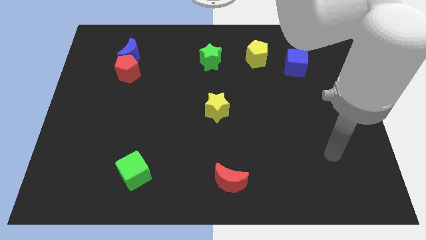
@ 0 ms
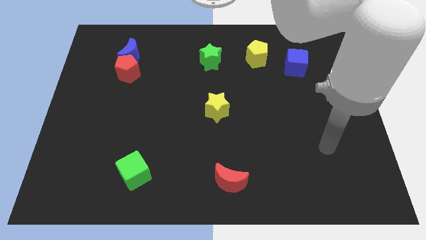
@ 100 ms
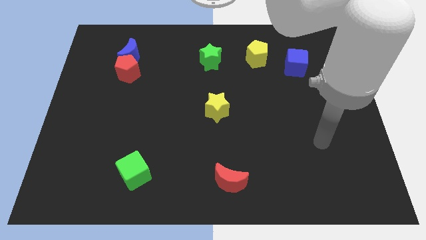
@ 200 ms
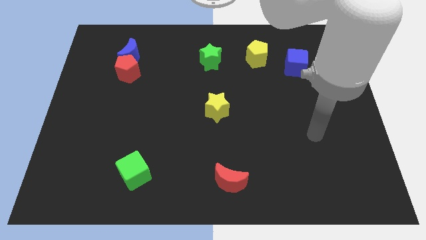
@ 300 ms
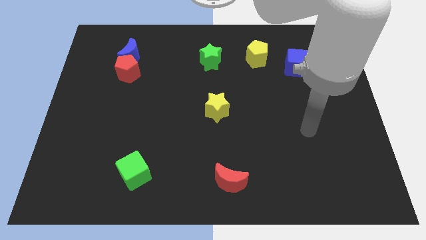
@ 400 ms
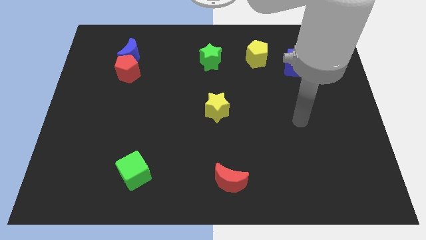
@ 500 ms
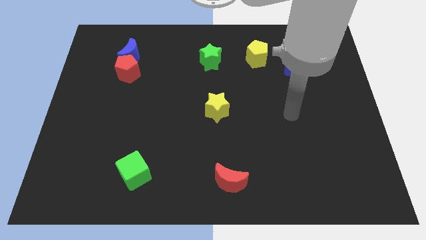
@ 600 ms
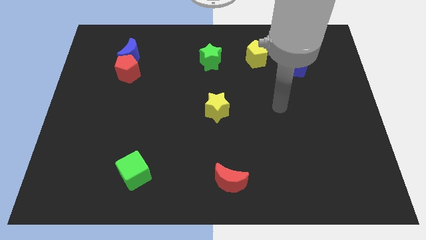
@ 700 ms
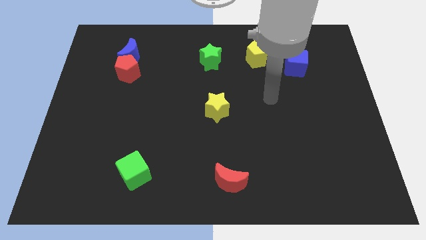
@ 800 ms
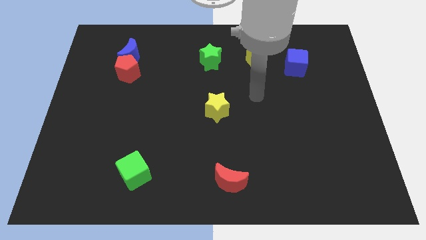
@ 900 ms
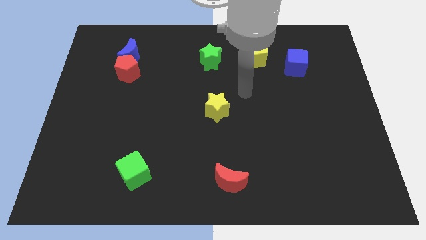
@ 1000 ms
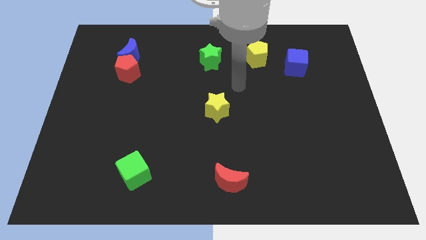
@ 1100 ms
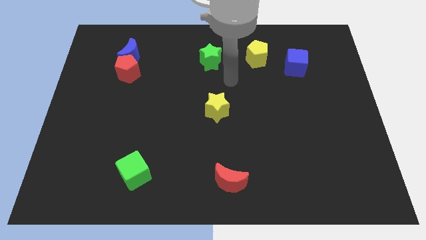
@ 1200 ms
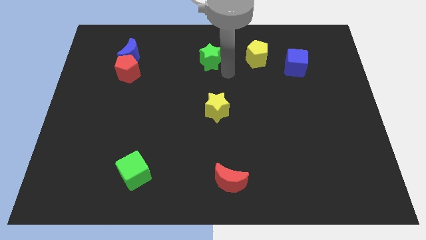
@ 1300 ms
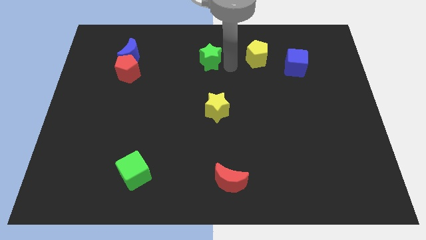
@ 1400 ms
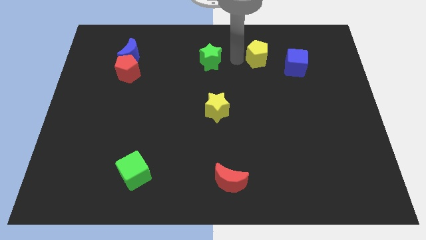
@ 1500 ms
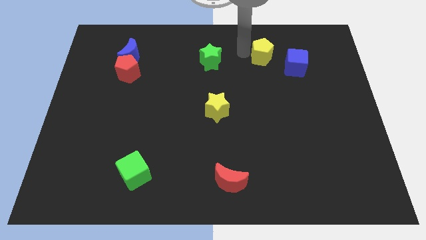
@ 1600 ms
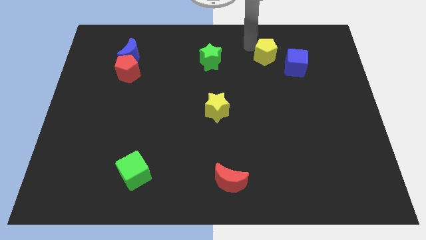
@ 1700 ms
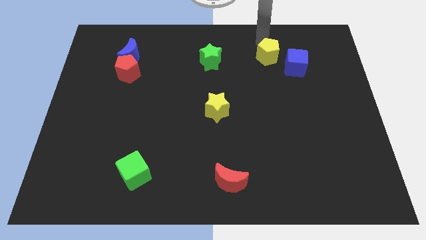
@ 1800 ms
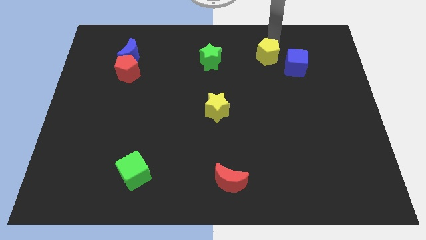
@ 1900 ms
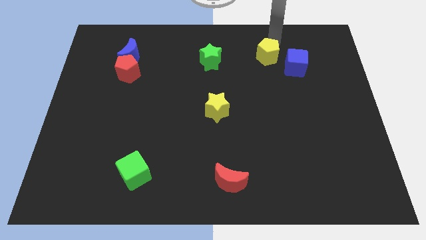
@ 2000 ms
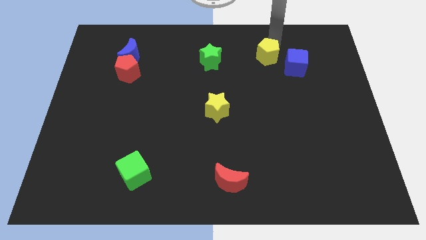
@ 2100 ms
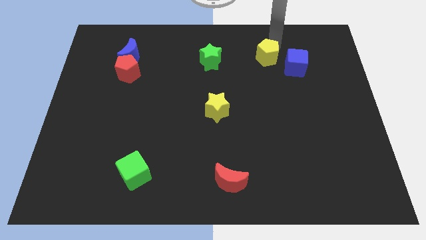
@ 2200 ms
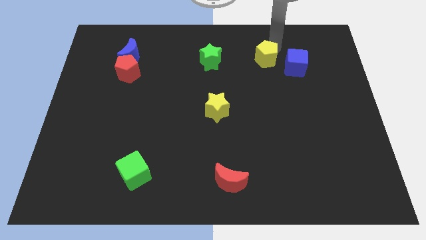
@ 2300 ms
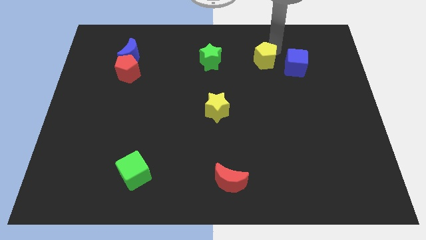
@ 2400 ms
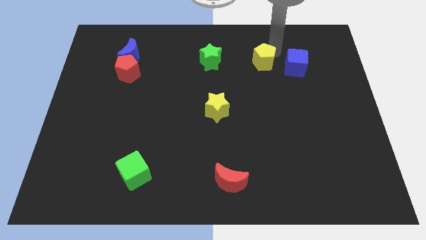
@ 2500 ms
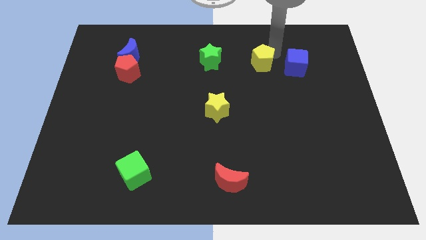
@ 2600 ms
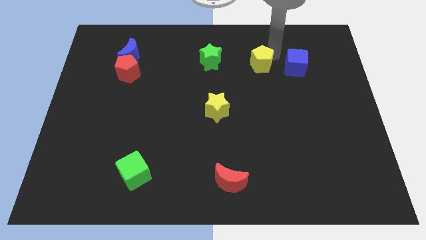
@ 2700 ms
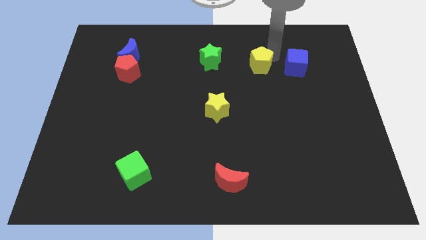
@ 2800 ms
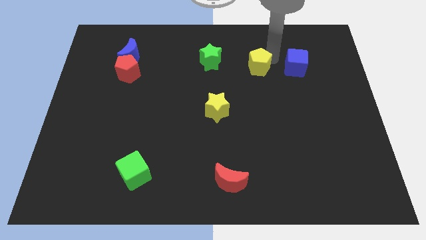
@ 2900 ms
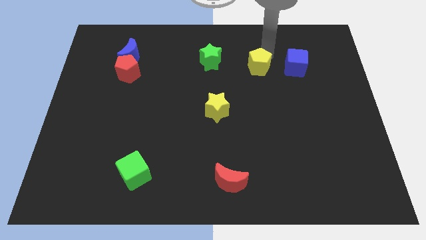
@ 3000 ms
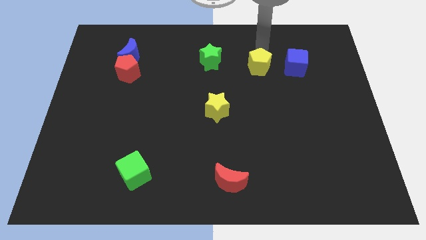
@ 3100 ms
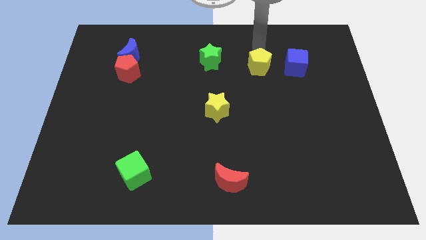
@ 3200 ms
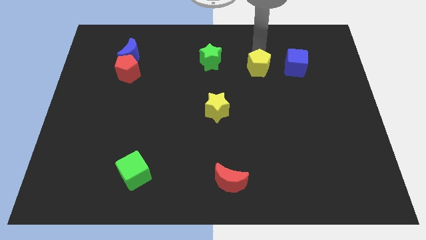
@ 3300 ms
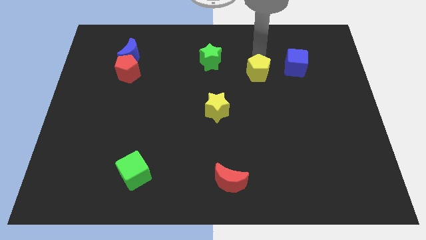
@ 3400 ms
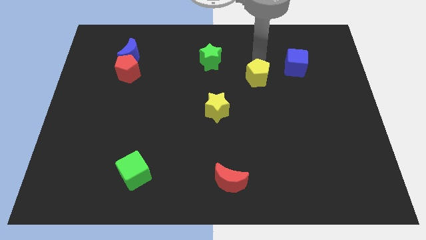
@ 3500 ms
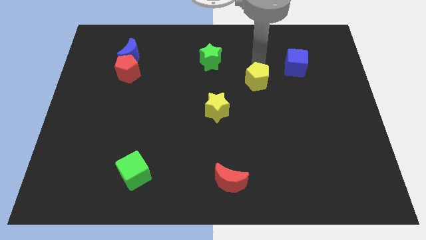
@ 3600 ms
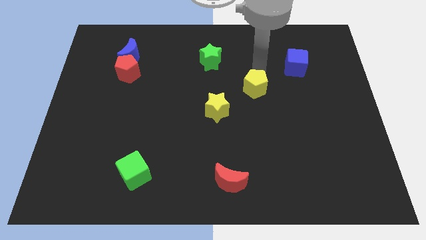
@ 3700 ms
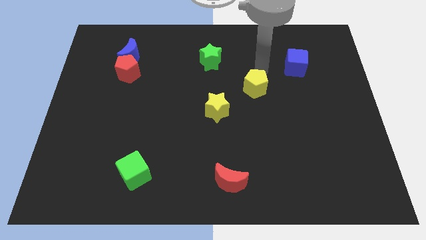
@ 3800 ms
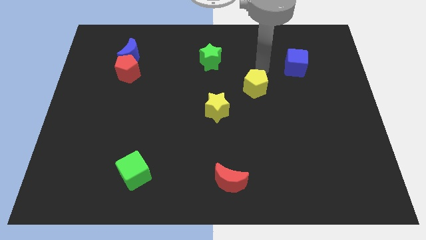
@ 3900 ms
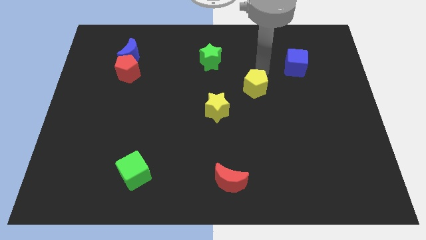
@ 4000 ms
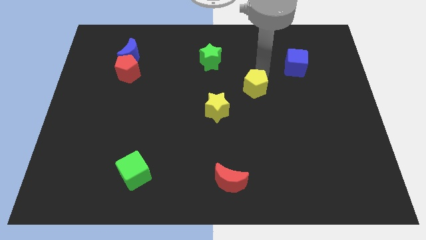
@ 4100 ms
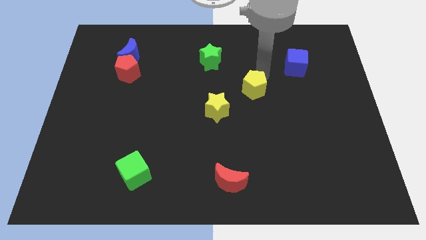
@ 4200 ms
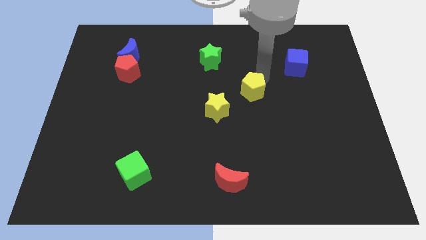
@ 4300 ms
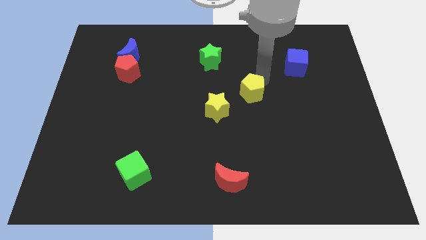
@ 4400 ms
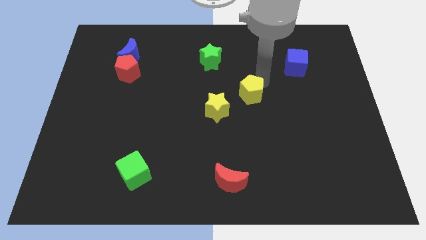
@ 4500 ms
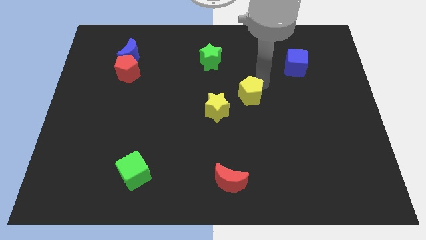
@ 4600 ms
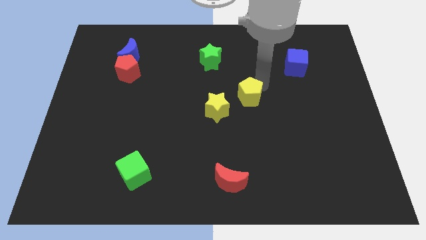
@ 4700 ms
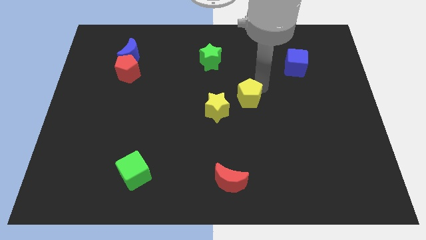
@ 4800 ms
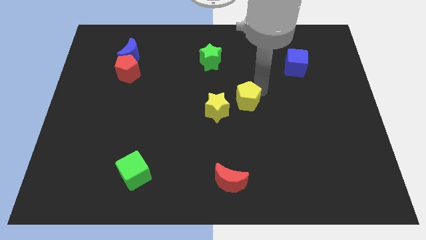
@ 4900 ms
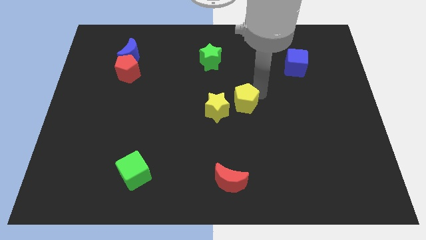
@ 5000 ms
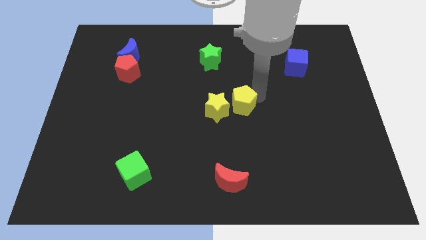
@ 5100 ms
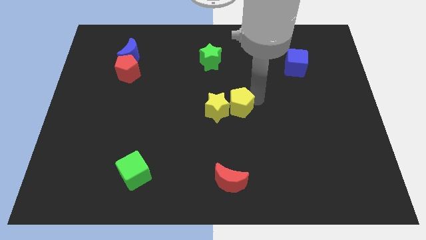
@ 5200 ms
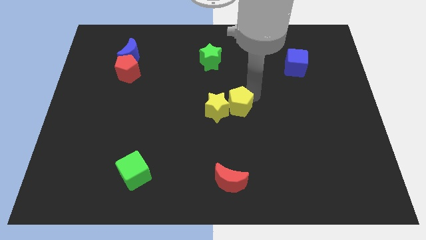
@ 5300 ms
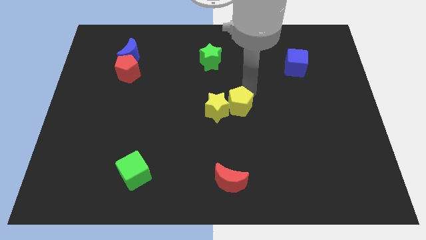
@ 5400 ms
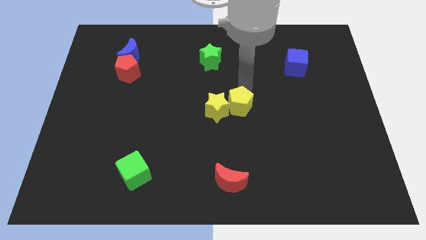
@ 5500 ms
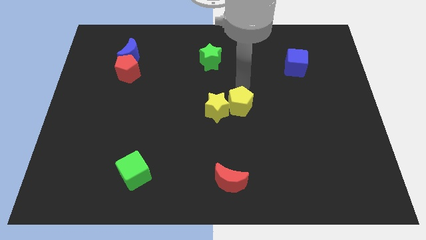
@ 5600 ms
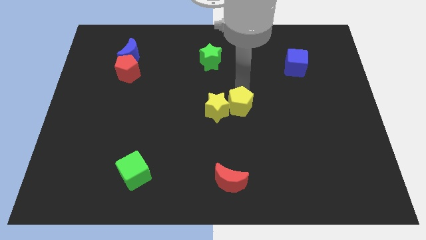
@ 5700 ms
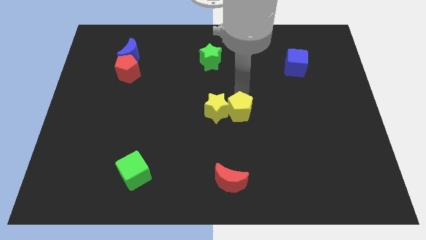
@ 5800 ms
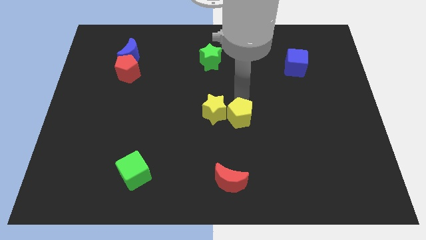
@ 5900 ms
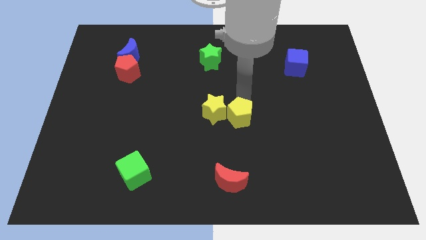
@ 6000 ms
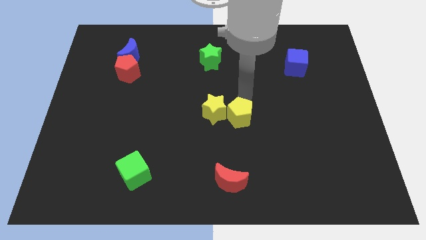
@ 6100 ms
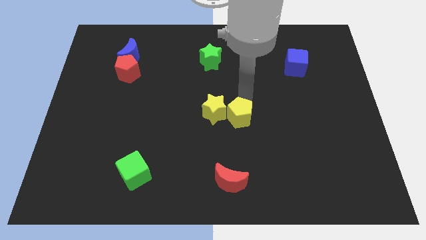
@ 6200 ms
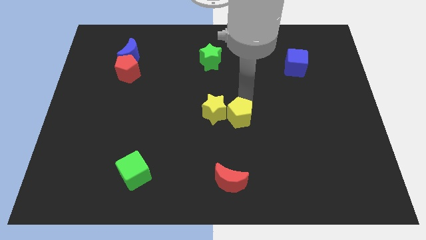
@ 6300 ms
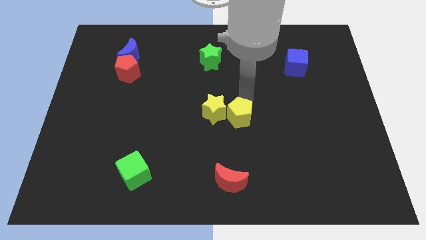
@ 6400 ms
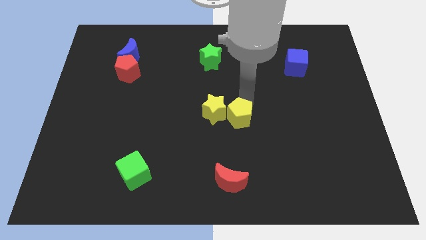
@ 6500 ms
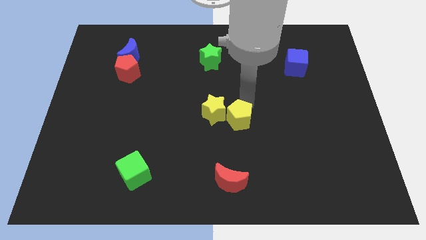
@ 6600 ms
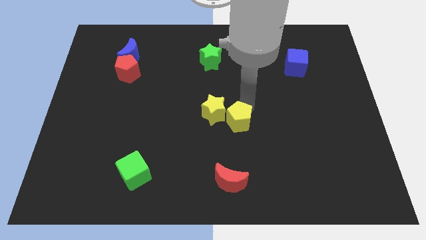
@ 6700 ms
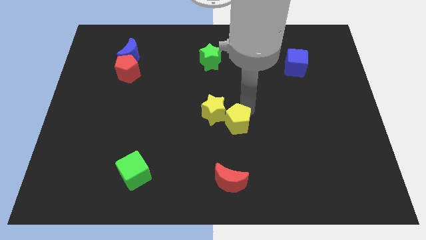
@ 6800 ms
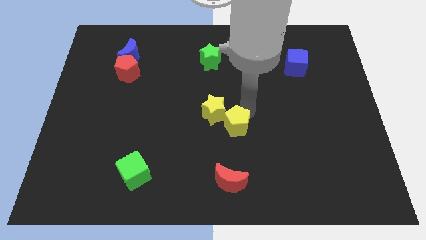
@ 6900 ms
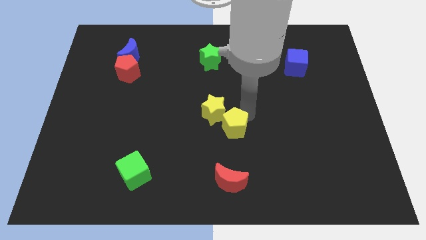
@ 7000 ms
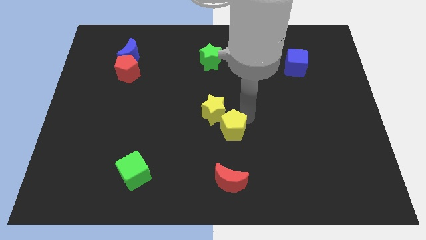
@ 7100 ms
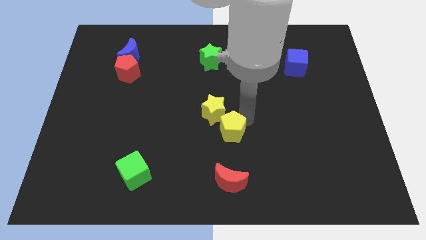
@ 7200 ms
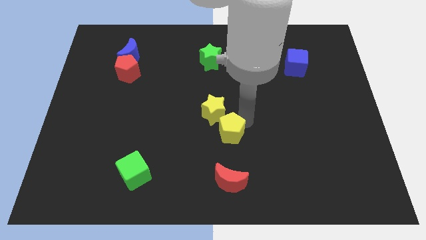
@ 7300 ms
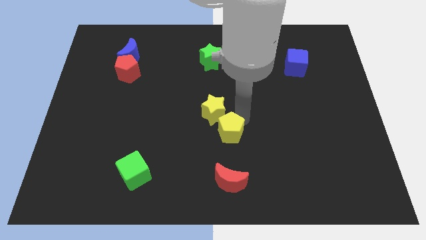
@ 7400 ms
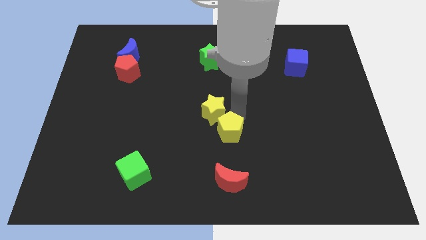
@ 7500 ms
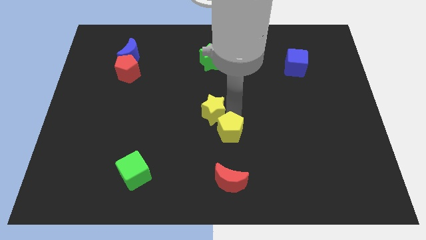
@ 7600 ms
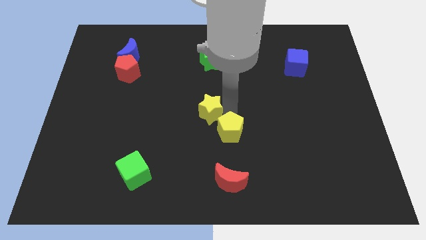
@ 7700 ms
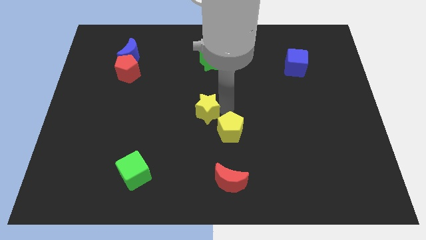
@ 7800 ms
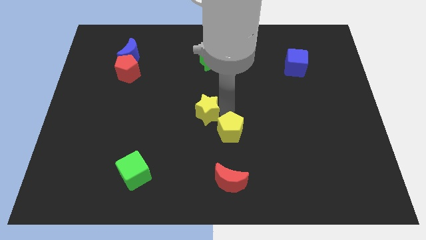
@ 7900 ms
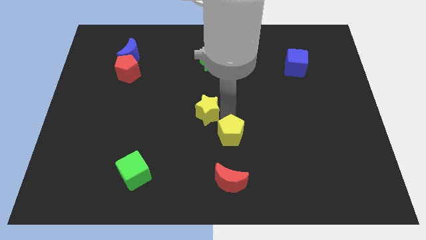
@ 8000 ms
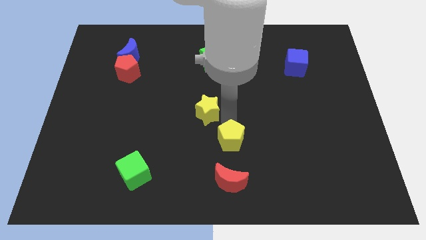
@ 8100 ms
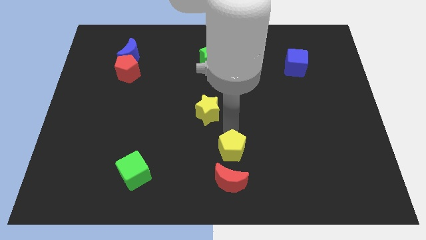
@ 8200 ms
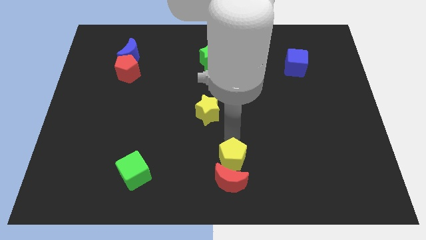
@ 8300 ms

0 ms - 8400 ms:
slide the yellow pentagon close to the red moon
